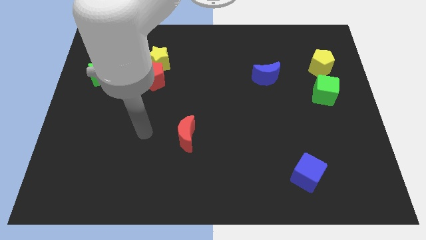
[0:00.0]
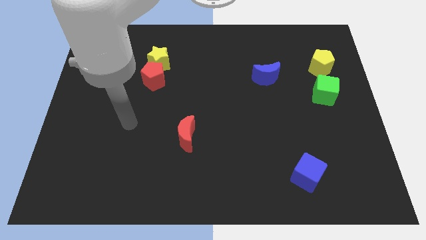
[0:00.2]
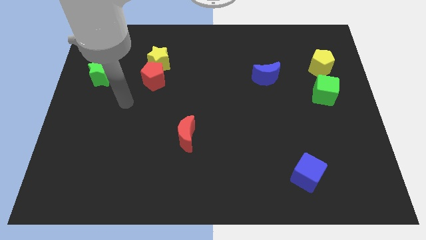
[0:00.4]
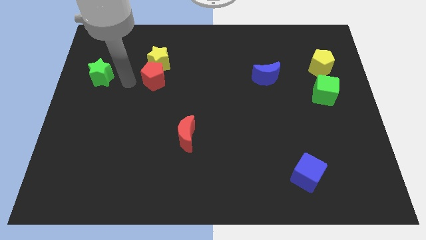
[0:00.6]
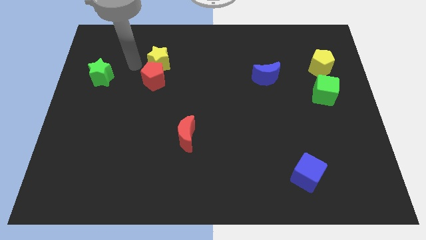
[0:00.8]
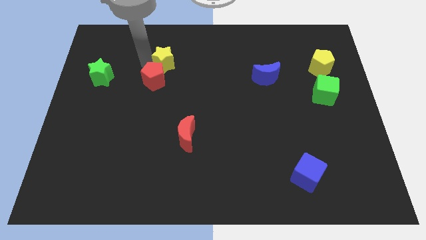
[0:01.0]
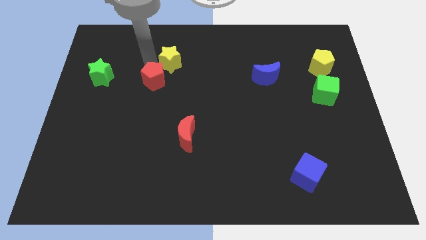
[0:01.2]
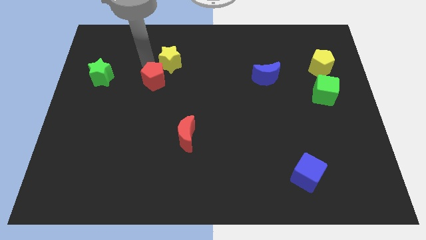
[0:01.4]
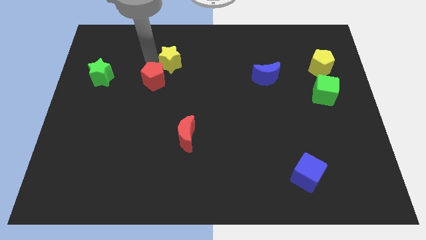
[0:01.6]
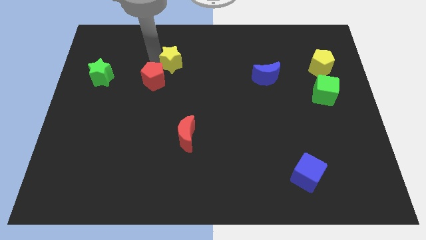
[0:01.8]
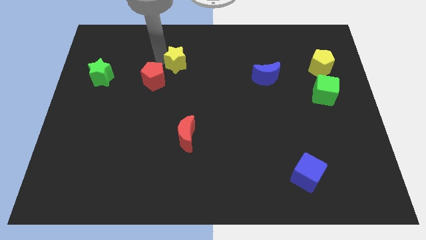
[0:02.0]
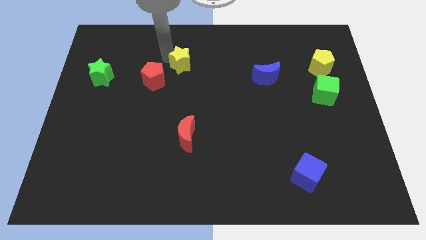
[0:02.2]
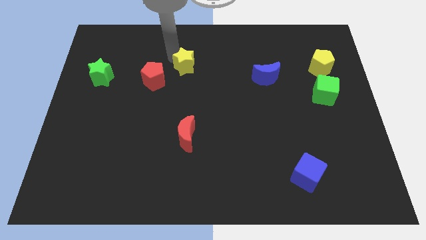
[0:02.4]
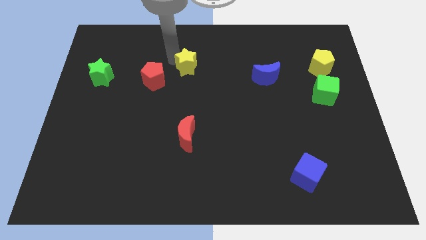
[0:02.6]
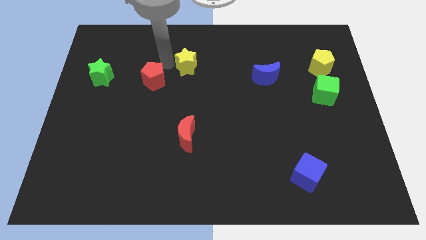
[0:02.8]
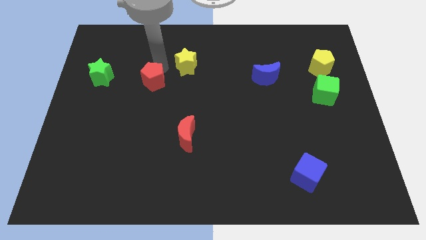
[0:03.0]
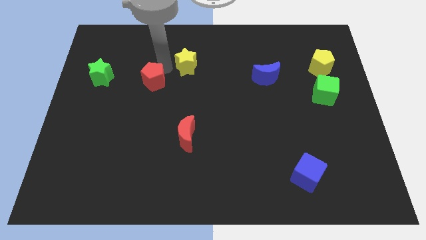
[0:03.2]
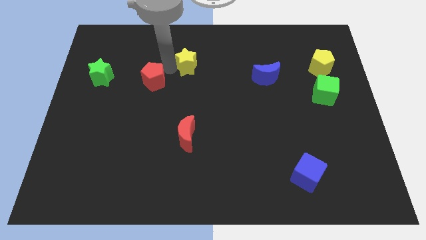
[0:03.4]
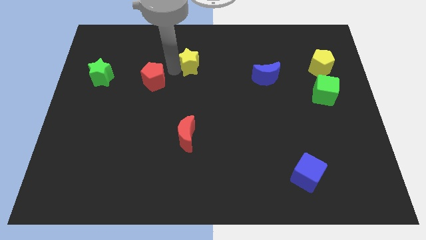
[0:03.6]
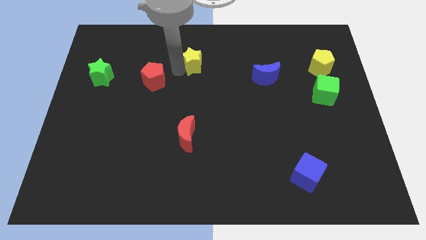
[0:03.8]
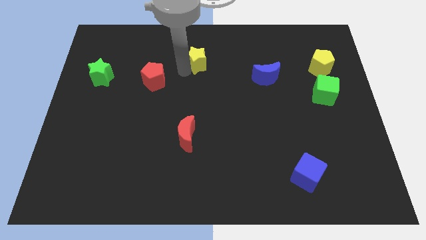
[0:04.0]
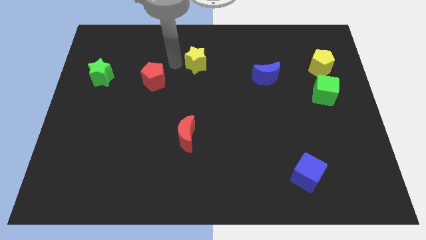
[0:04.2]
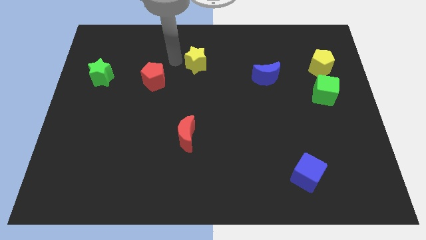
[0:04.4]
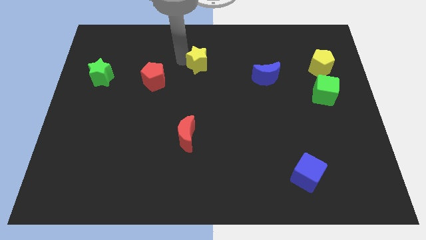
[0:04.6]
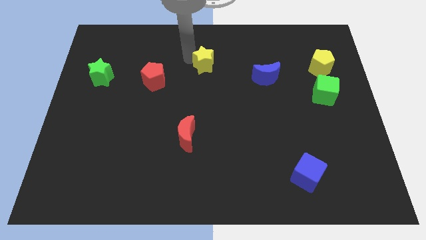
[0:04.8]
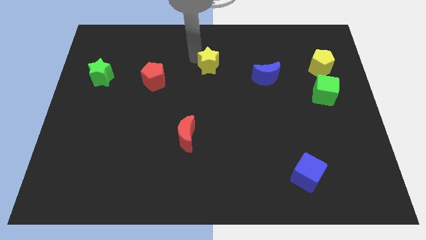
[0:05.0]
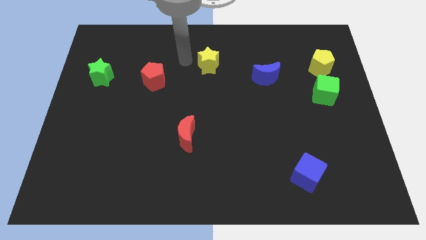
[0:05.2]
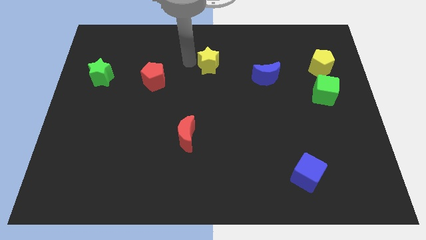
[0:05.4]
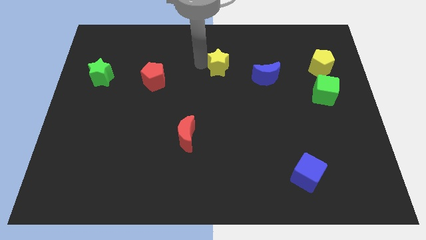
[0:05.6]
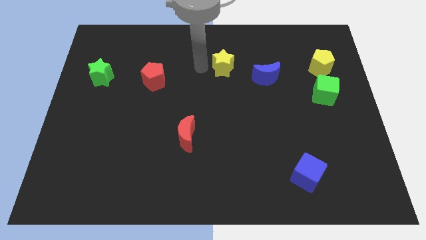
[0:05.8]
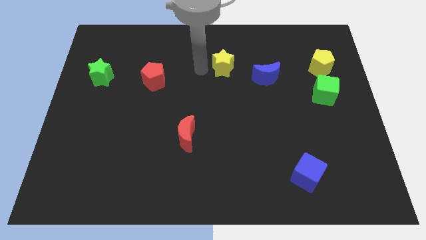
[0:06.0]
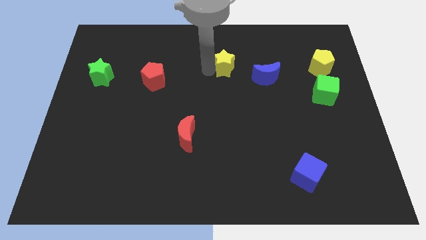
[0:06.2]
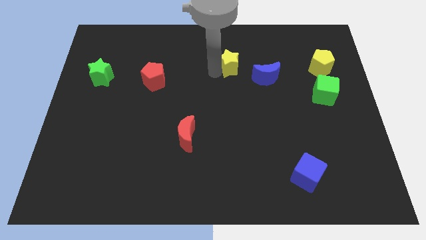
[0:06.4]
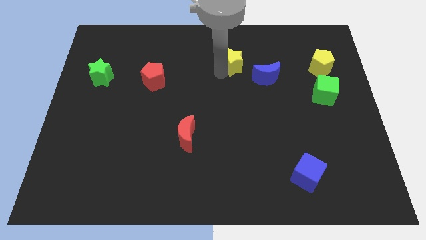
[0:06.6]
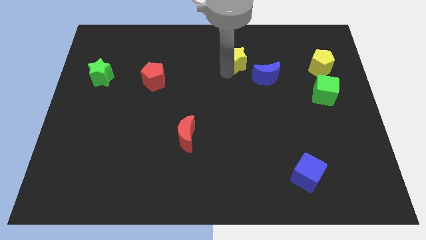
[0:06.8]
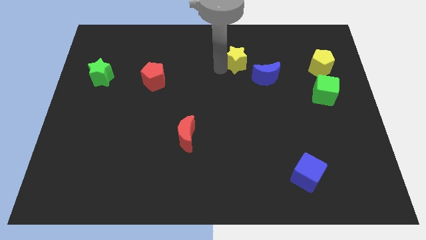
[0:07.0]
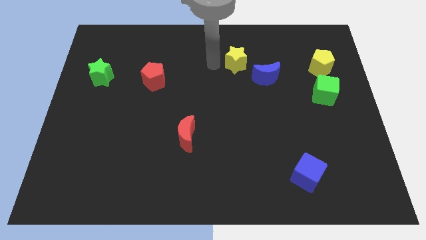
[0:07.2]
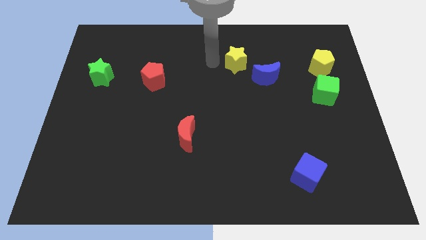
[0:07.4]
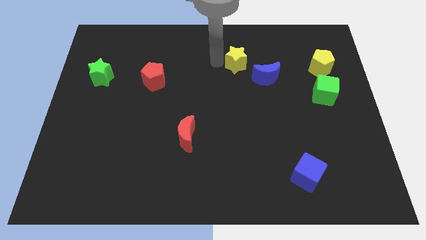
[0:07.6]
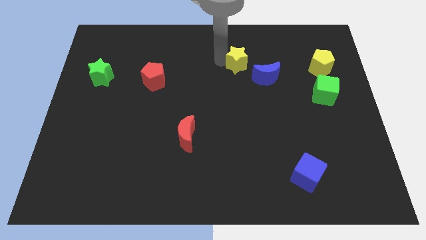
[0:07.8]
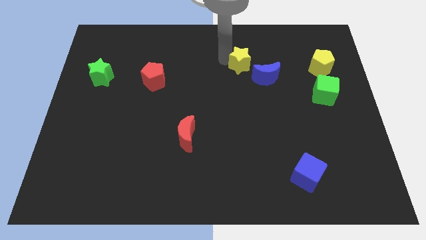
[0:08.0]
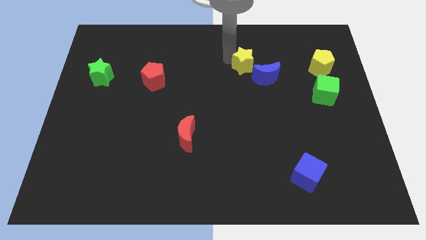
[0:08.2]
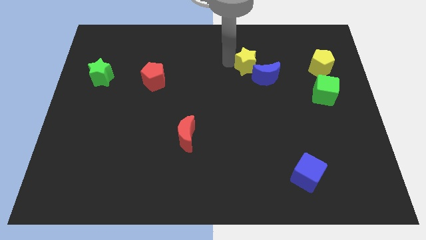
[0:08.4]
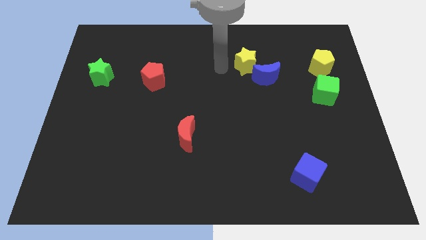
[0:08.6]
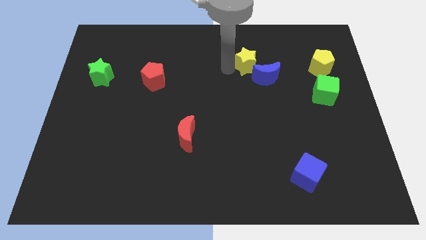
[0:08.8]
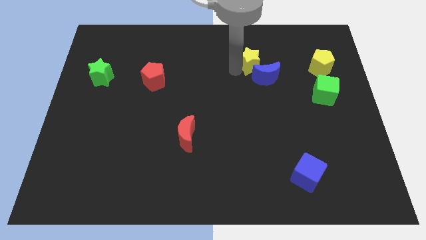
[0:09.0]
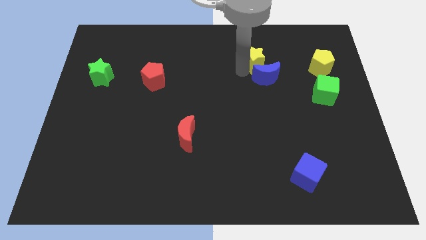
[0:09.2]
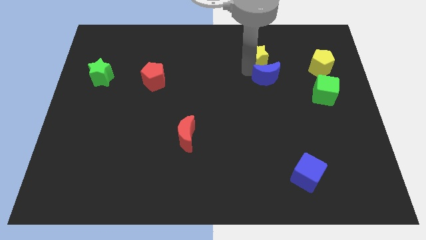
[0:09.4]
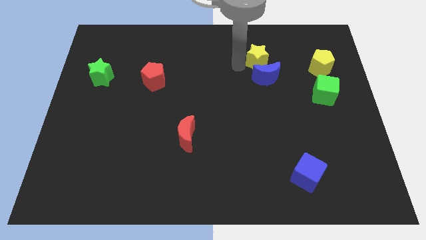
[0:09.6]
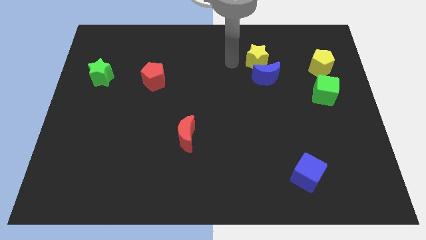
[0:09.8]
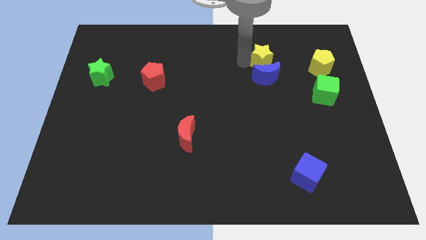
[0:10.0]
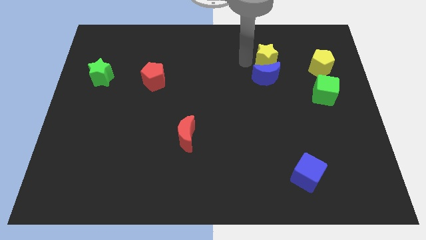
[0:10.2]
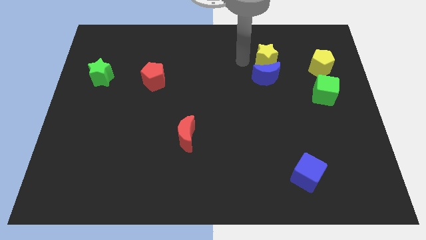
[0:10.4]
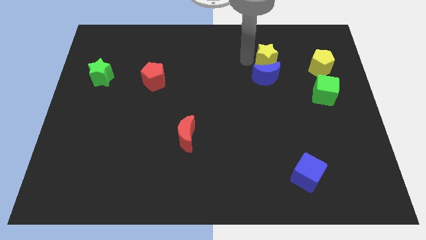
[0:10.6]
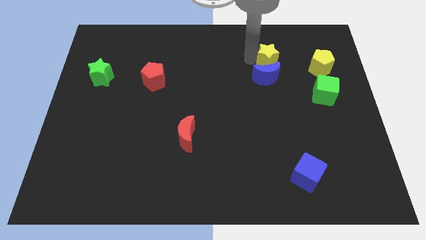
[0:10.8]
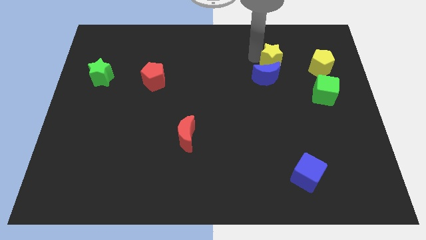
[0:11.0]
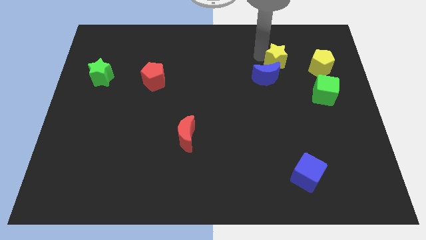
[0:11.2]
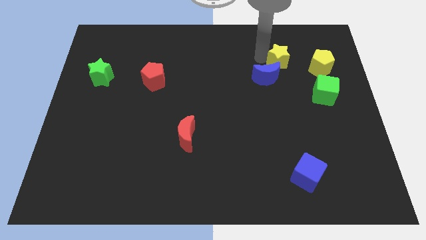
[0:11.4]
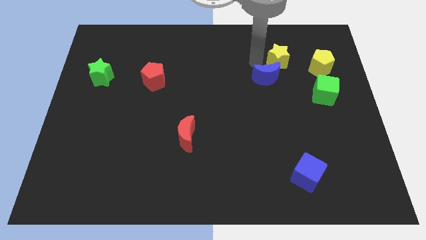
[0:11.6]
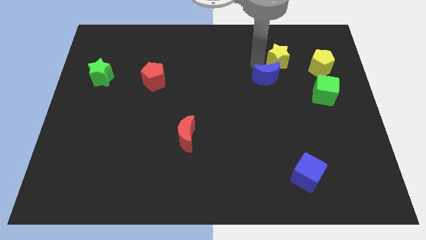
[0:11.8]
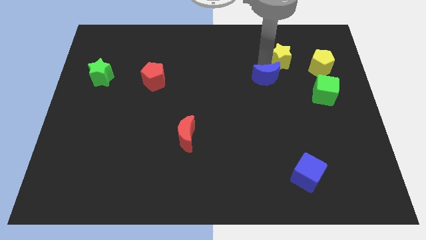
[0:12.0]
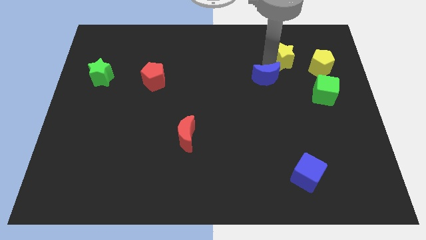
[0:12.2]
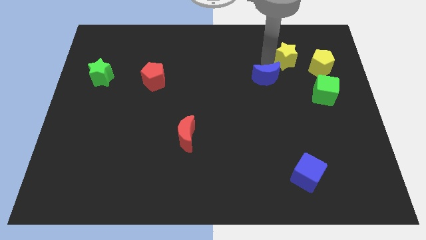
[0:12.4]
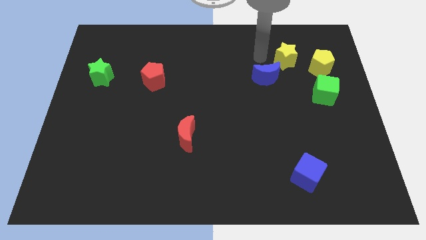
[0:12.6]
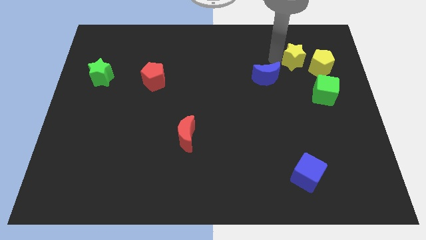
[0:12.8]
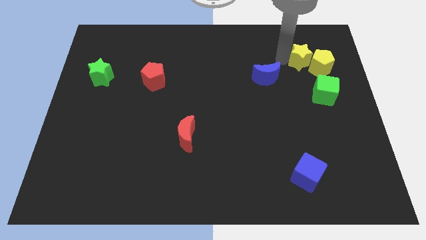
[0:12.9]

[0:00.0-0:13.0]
slide the yellow star to the top of the green cube

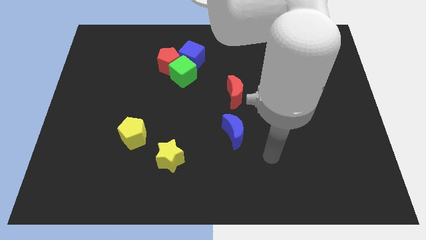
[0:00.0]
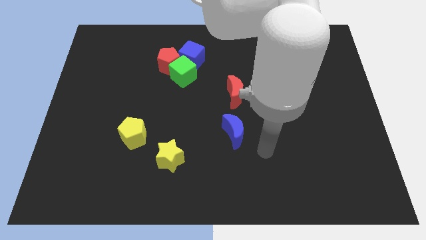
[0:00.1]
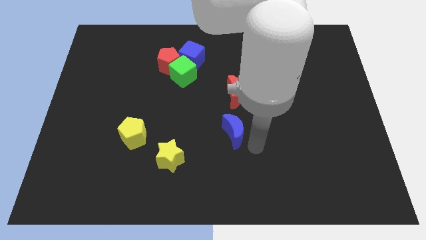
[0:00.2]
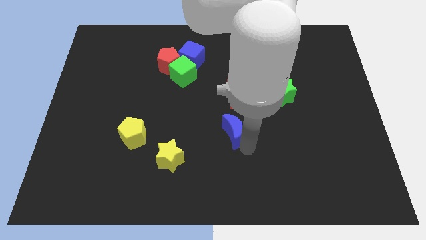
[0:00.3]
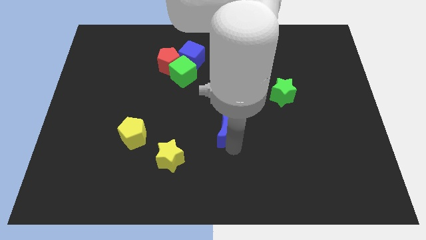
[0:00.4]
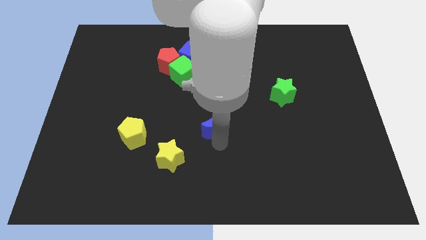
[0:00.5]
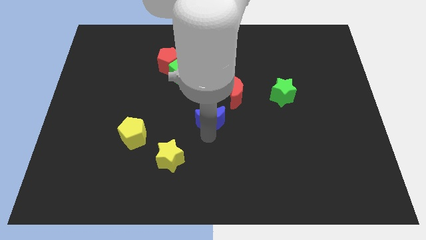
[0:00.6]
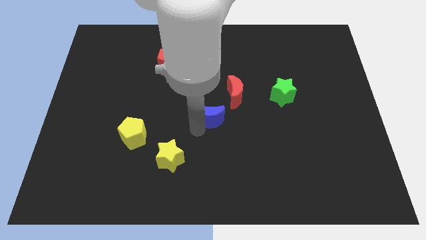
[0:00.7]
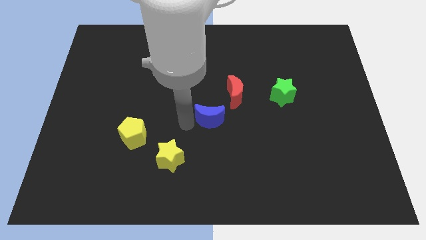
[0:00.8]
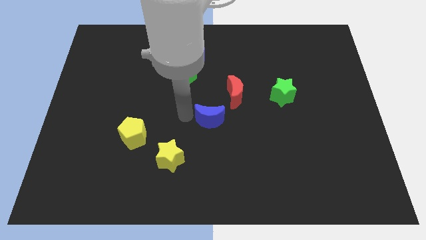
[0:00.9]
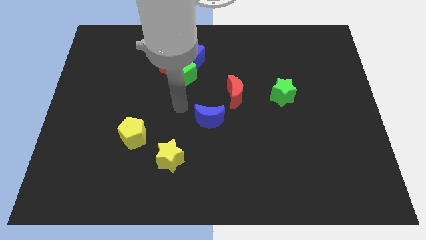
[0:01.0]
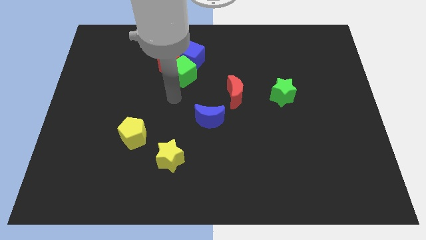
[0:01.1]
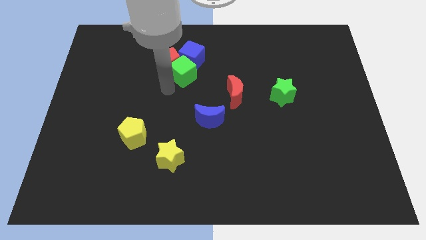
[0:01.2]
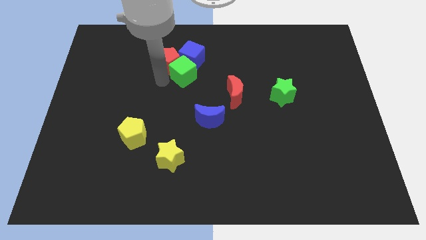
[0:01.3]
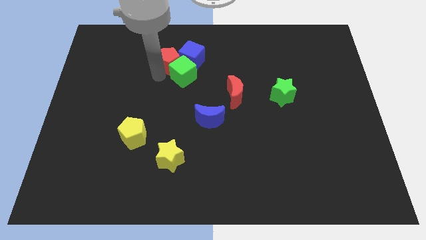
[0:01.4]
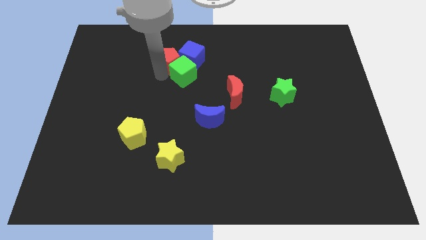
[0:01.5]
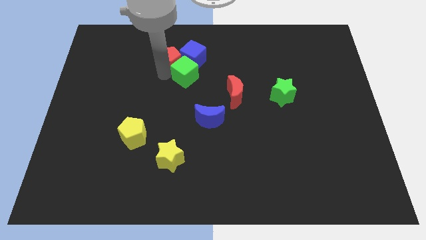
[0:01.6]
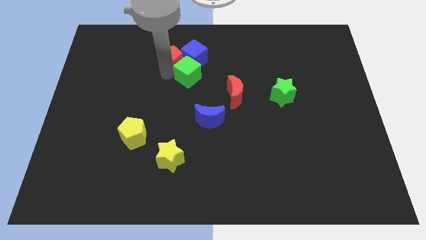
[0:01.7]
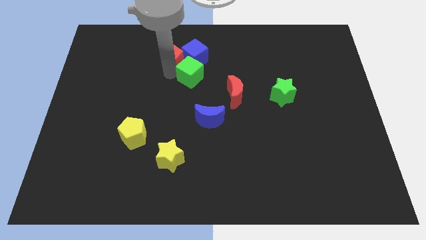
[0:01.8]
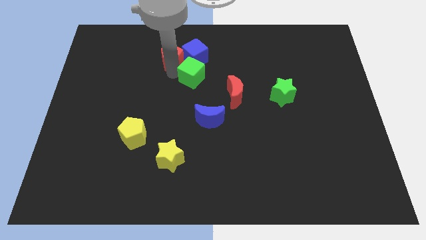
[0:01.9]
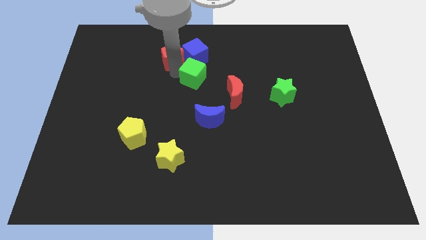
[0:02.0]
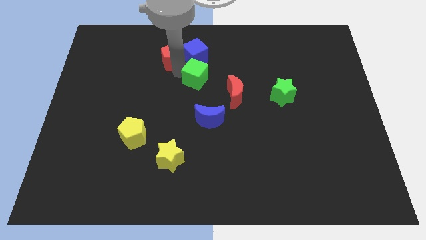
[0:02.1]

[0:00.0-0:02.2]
slide the green cube diagonally down and to the right of the blue cube
